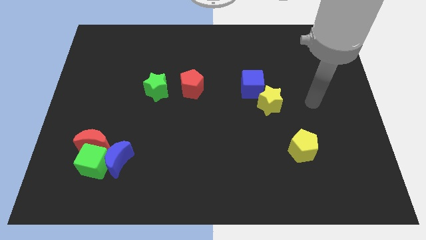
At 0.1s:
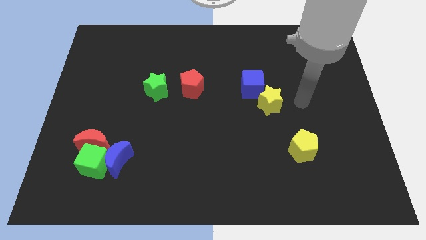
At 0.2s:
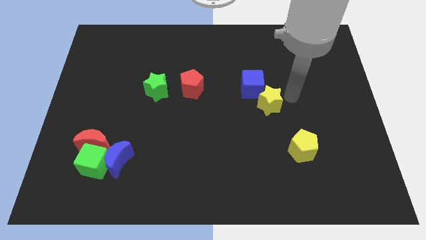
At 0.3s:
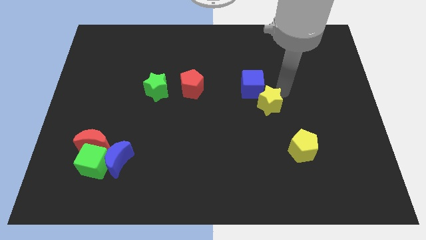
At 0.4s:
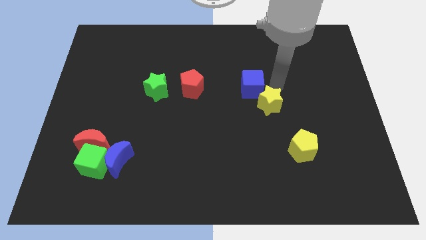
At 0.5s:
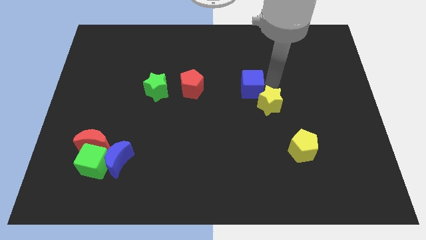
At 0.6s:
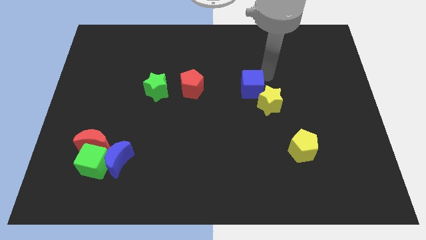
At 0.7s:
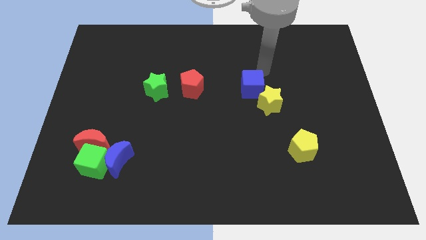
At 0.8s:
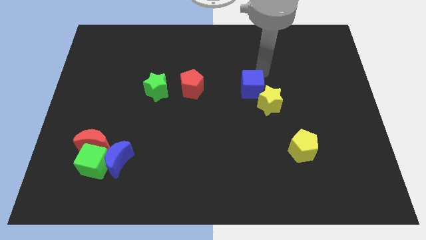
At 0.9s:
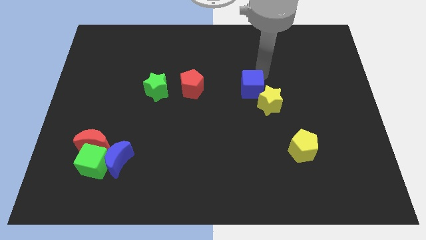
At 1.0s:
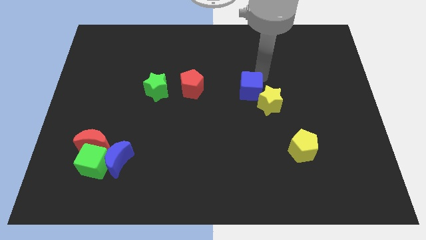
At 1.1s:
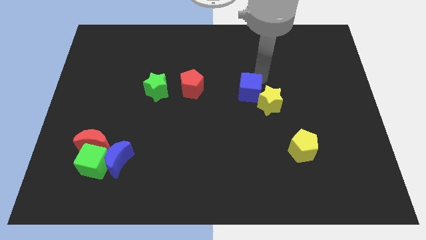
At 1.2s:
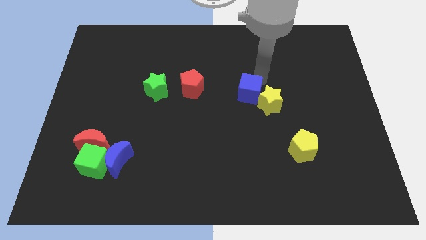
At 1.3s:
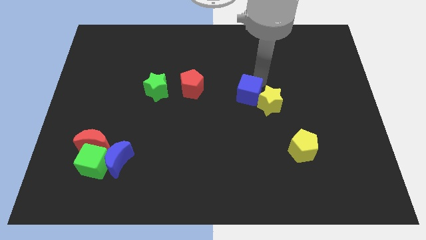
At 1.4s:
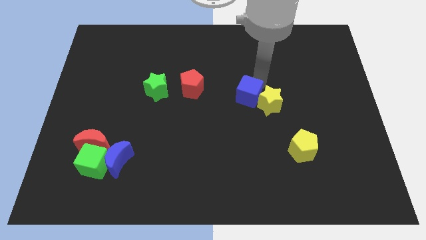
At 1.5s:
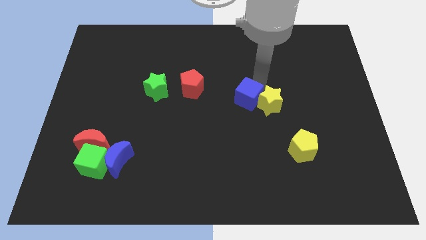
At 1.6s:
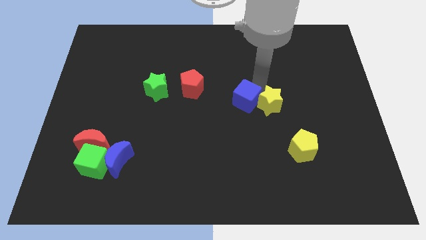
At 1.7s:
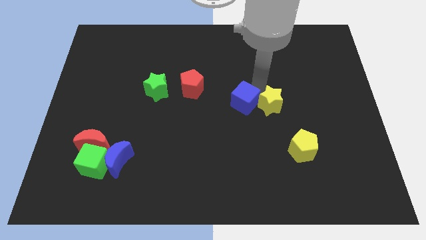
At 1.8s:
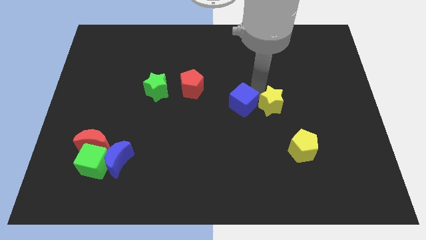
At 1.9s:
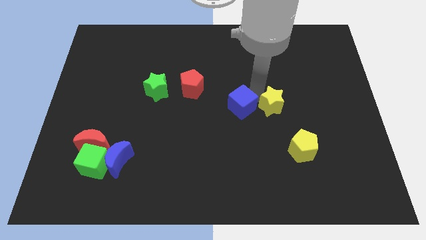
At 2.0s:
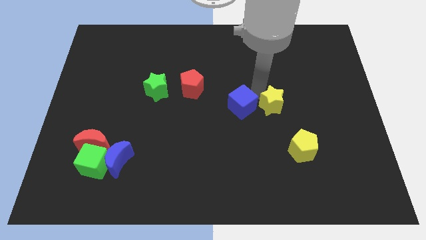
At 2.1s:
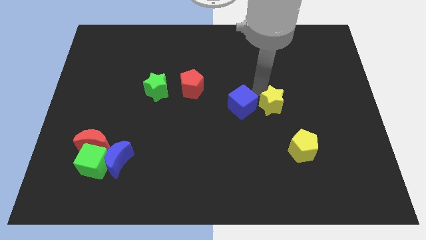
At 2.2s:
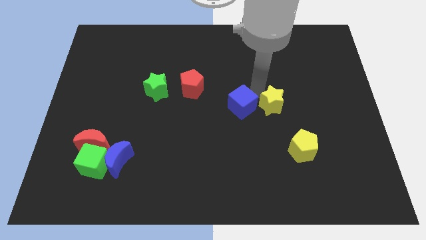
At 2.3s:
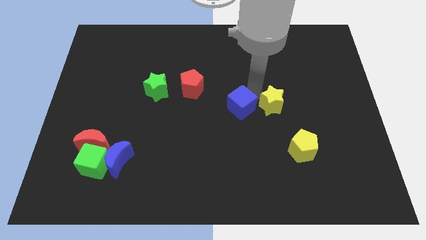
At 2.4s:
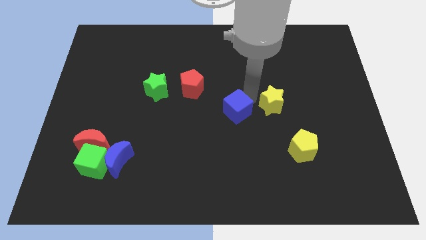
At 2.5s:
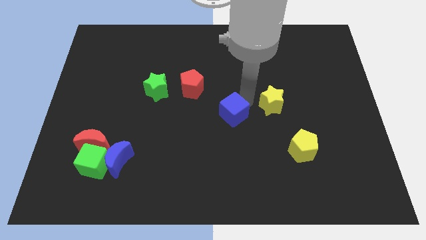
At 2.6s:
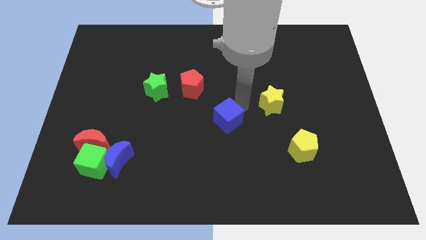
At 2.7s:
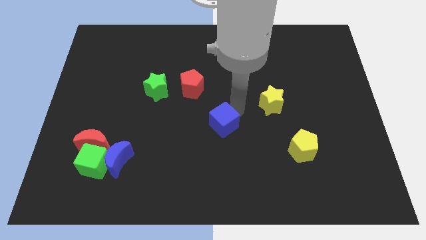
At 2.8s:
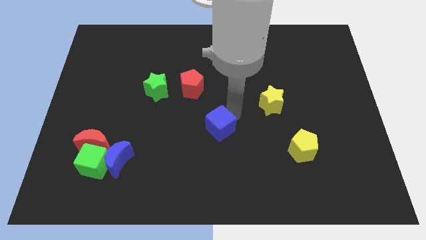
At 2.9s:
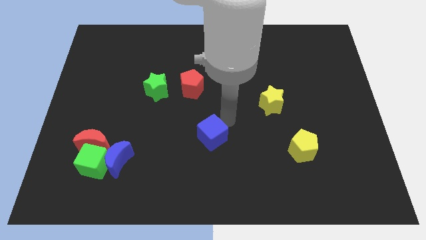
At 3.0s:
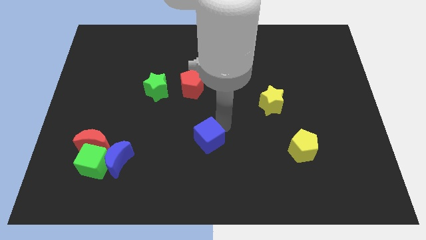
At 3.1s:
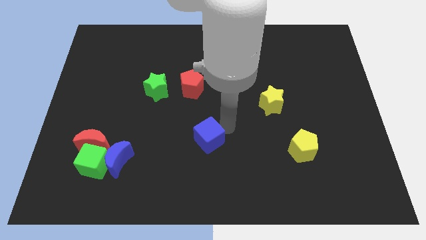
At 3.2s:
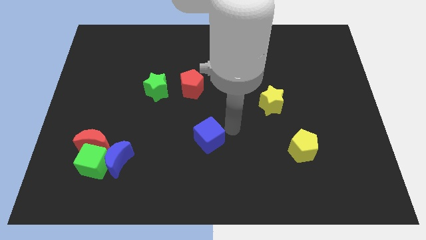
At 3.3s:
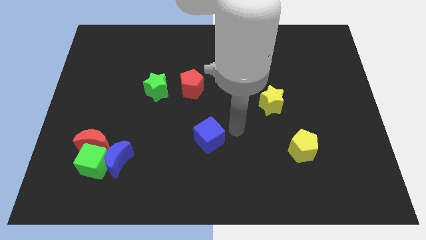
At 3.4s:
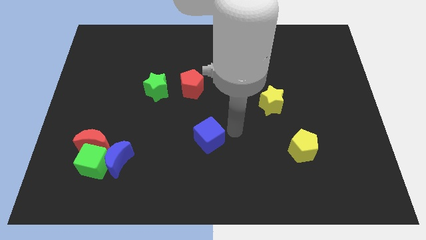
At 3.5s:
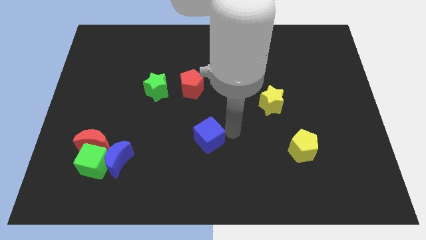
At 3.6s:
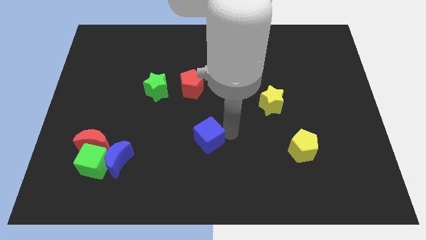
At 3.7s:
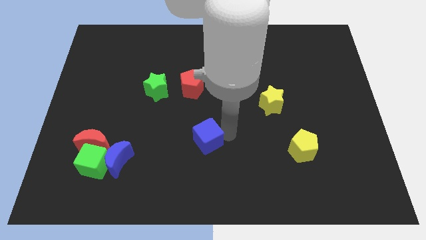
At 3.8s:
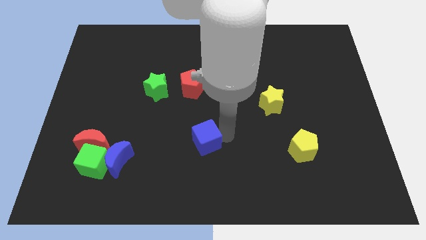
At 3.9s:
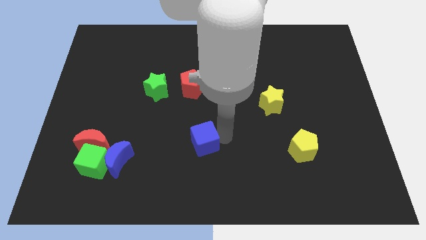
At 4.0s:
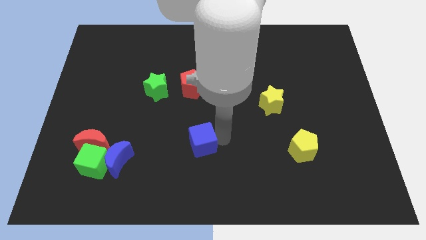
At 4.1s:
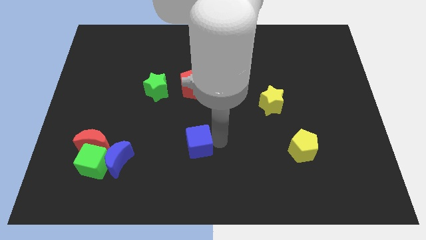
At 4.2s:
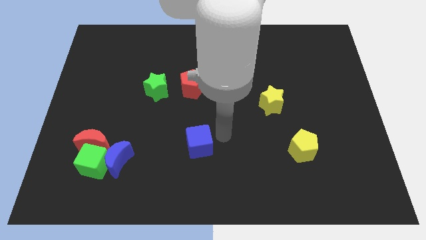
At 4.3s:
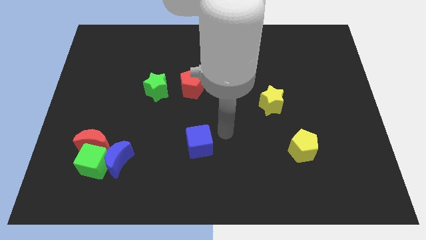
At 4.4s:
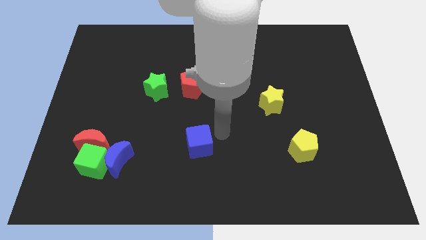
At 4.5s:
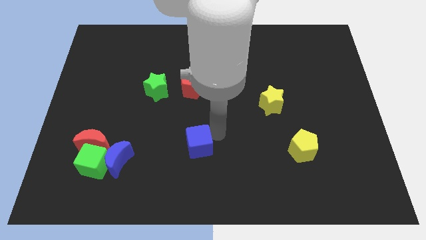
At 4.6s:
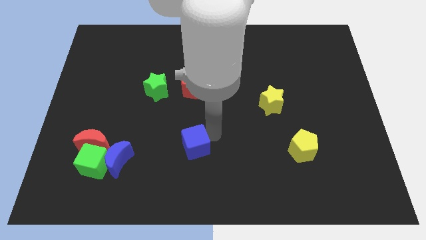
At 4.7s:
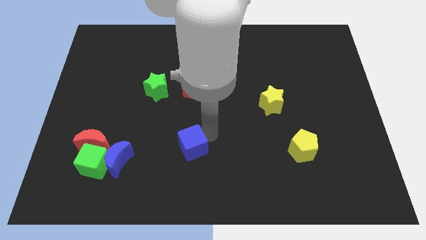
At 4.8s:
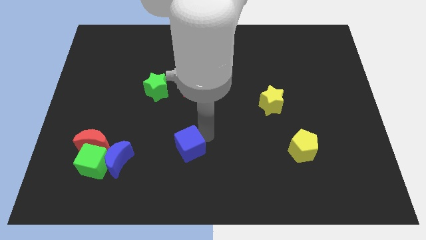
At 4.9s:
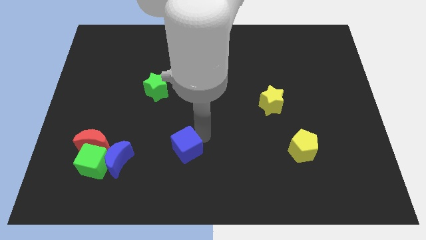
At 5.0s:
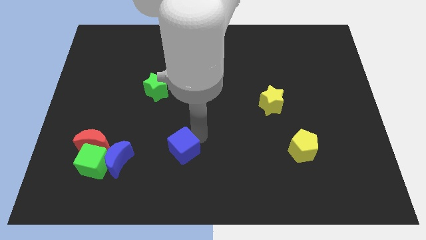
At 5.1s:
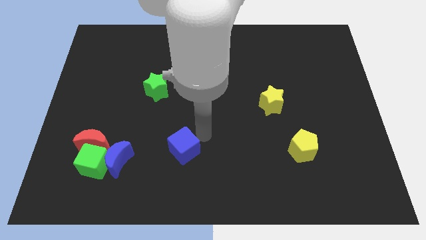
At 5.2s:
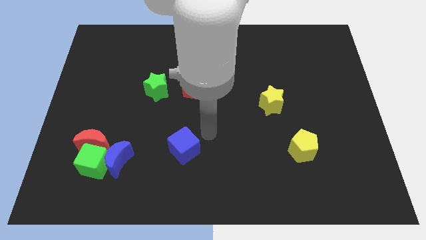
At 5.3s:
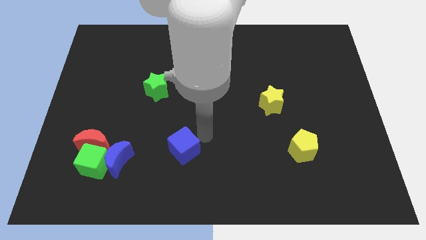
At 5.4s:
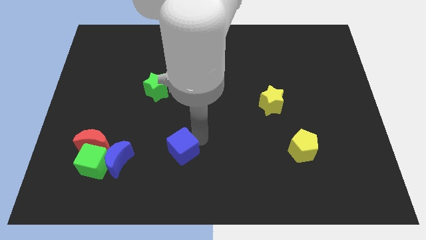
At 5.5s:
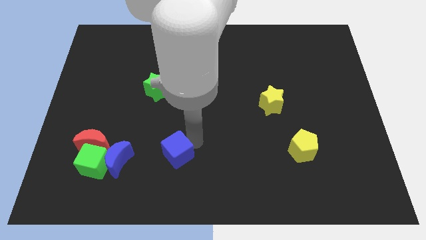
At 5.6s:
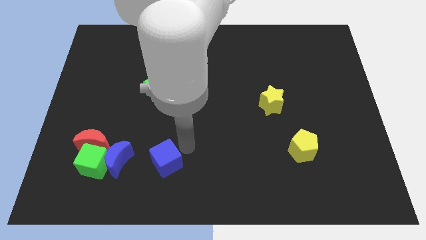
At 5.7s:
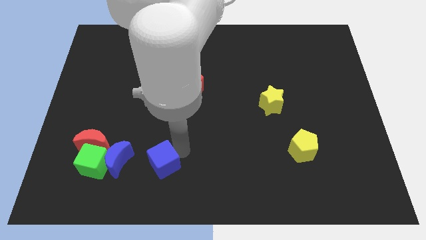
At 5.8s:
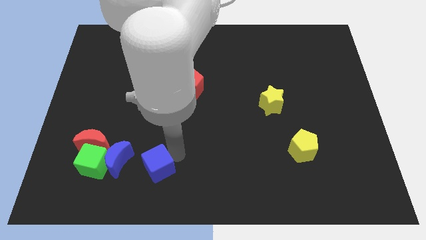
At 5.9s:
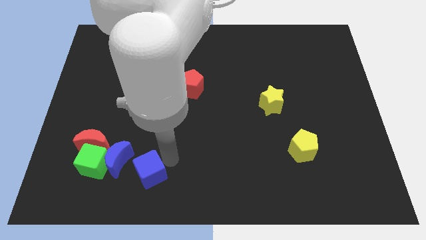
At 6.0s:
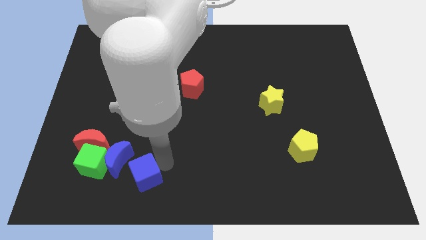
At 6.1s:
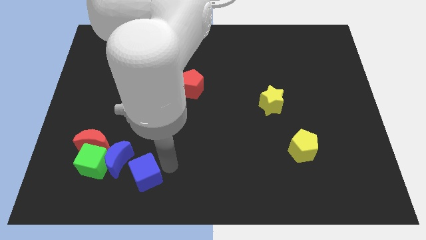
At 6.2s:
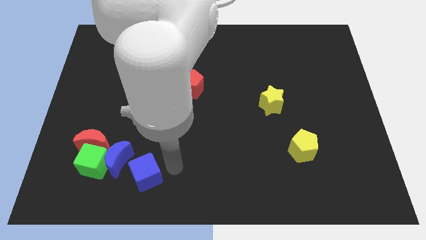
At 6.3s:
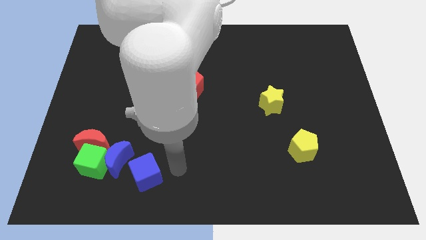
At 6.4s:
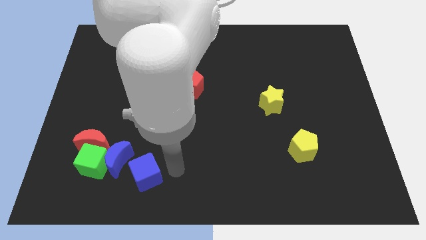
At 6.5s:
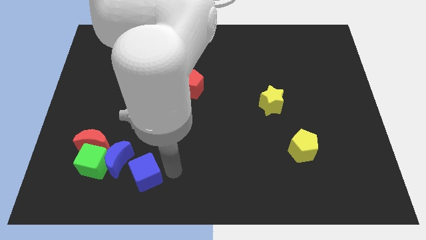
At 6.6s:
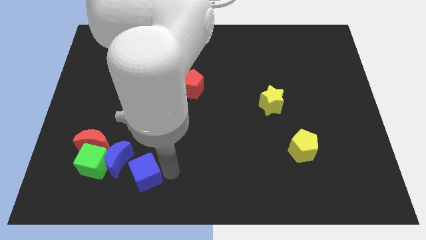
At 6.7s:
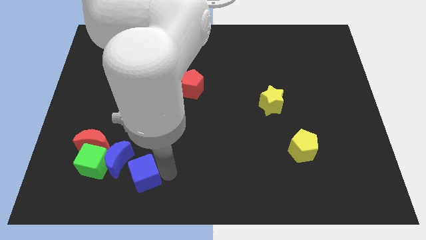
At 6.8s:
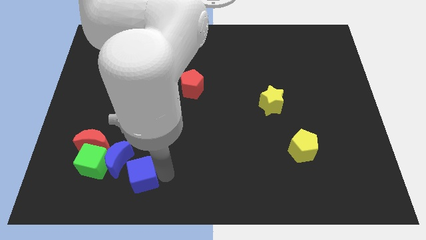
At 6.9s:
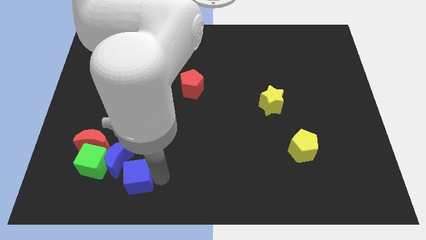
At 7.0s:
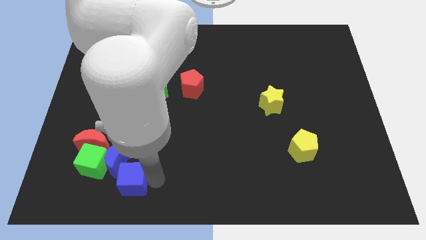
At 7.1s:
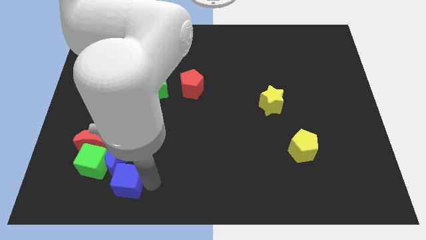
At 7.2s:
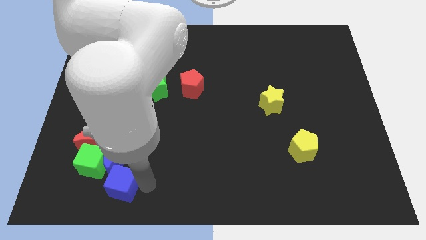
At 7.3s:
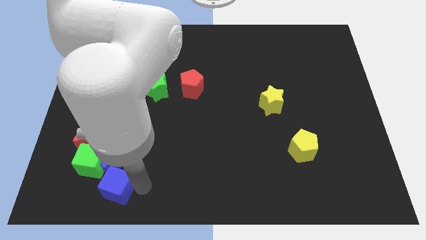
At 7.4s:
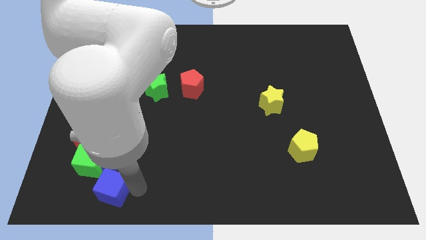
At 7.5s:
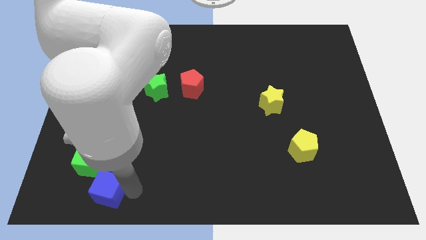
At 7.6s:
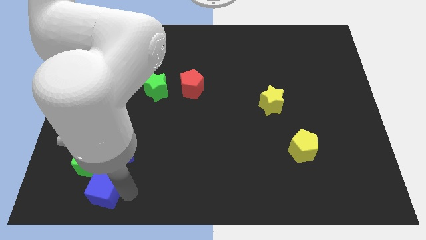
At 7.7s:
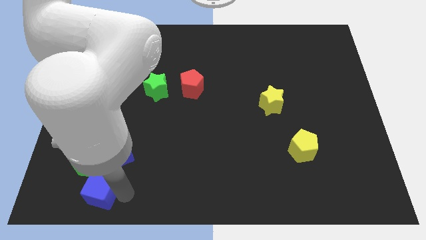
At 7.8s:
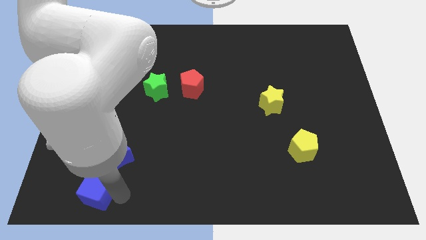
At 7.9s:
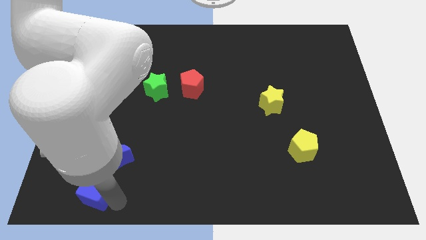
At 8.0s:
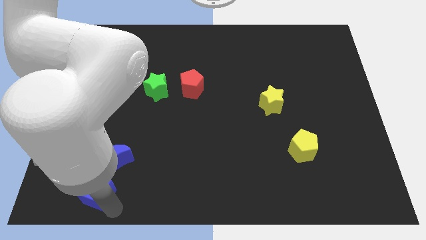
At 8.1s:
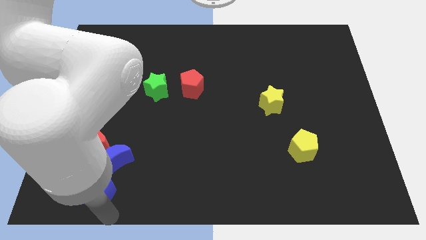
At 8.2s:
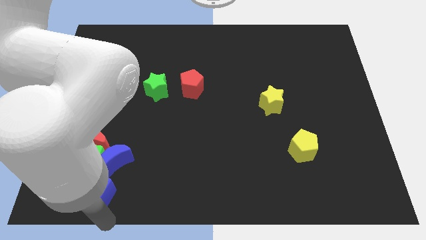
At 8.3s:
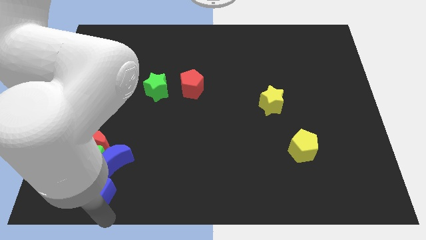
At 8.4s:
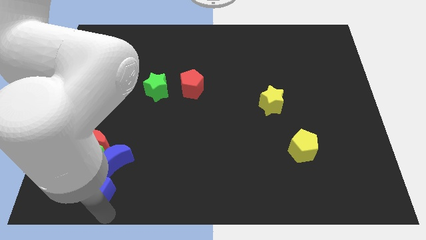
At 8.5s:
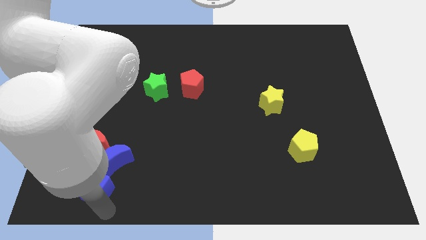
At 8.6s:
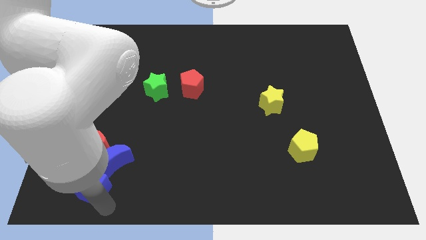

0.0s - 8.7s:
put the blue cube close to the green cube
